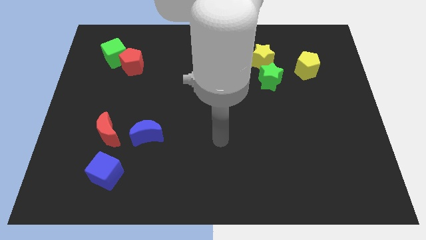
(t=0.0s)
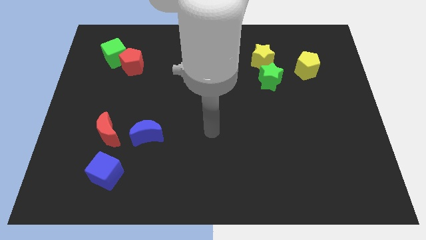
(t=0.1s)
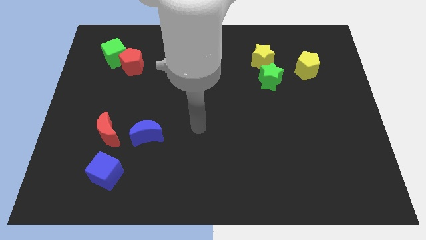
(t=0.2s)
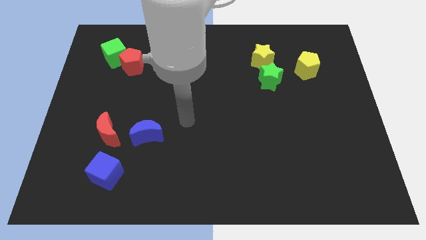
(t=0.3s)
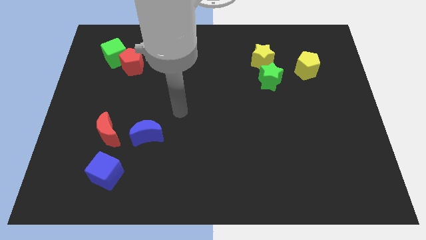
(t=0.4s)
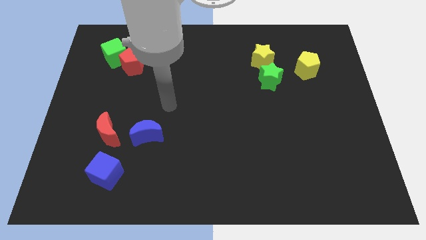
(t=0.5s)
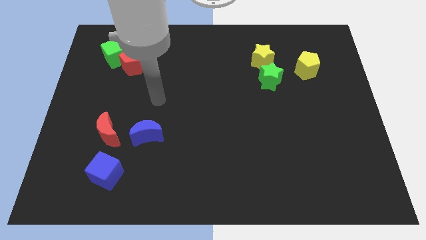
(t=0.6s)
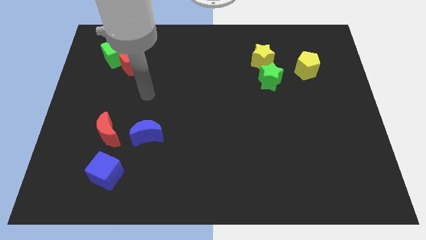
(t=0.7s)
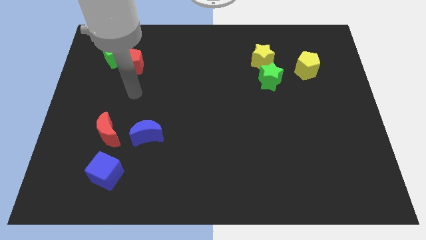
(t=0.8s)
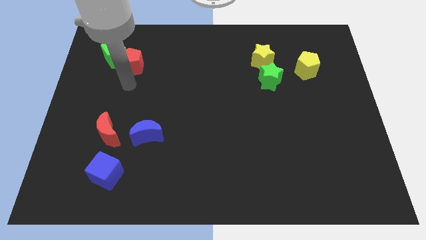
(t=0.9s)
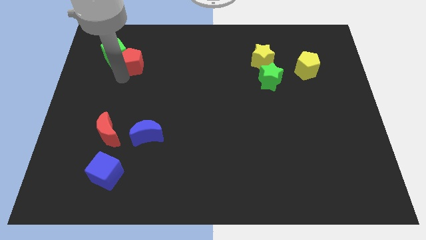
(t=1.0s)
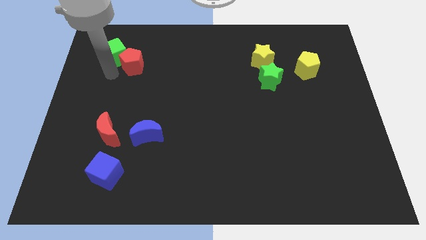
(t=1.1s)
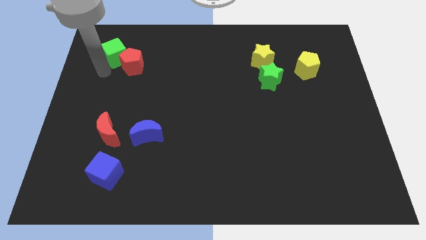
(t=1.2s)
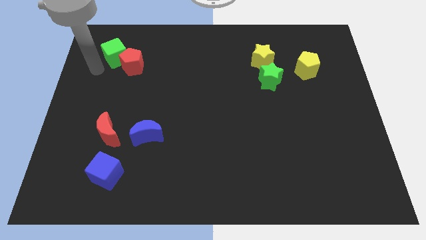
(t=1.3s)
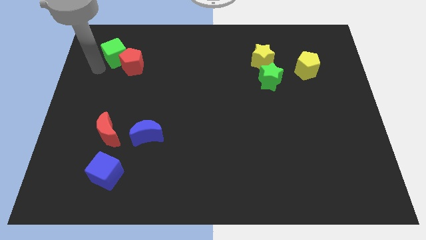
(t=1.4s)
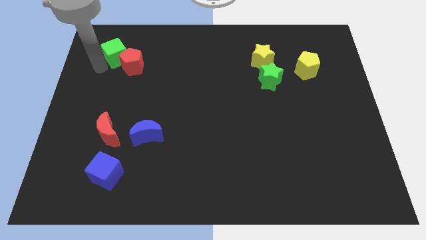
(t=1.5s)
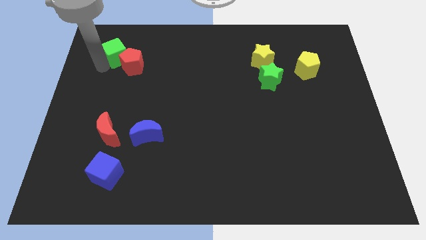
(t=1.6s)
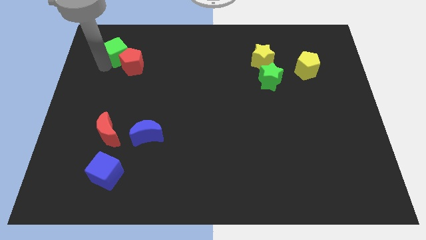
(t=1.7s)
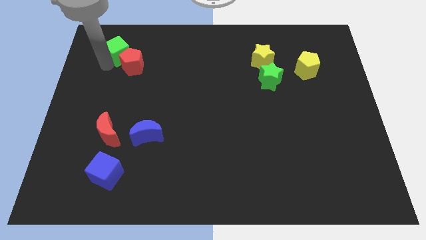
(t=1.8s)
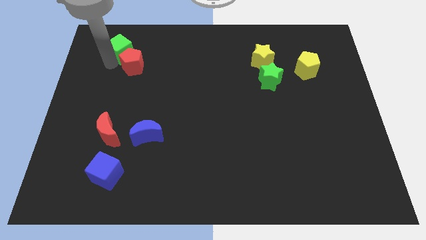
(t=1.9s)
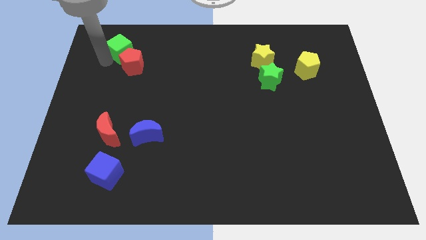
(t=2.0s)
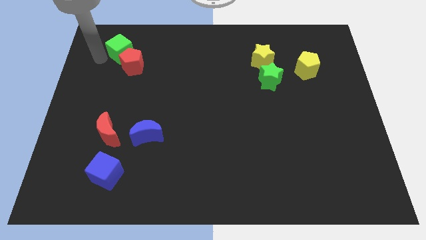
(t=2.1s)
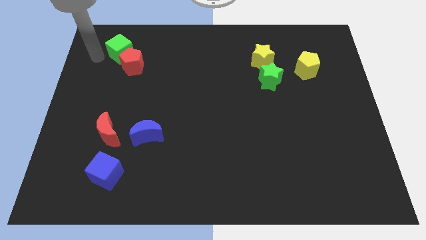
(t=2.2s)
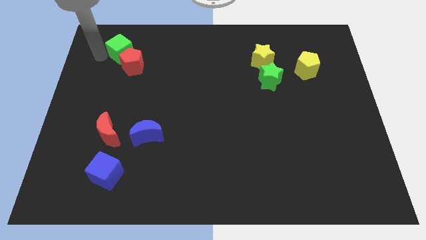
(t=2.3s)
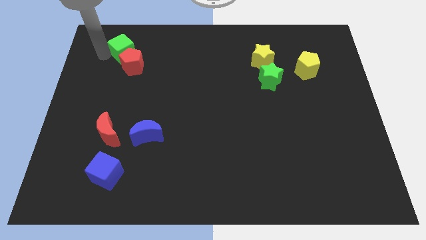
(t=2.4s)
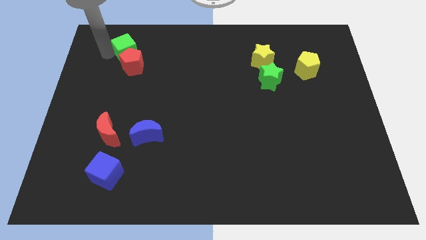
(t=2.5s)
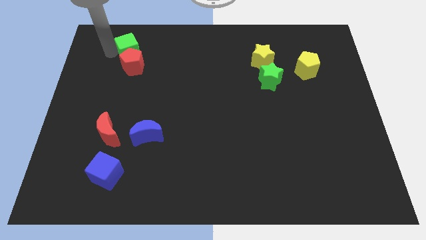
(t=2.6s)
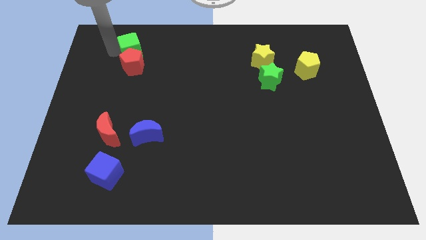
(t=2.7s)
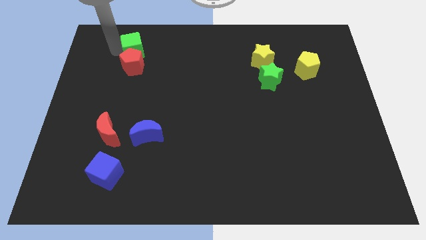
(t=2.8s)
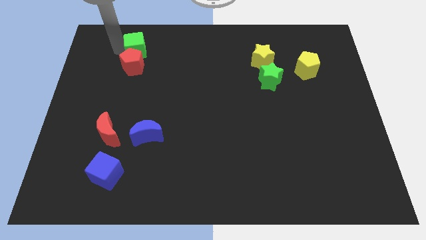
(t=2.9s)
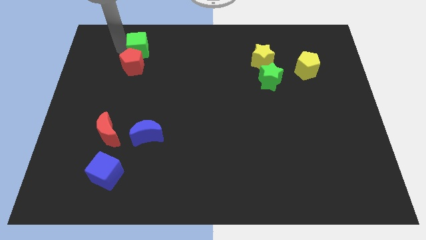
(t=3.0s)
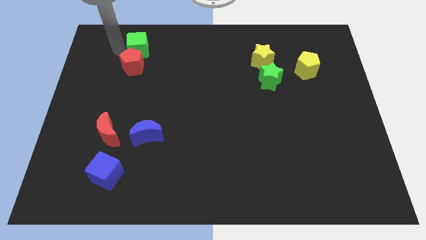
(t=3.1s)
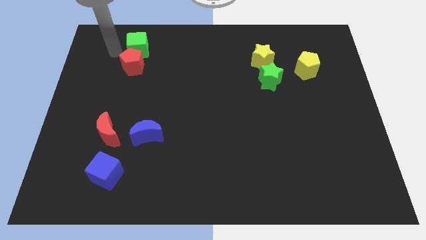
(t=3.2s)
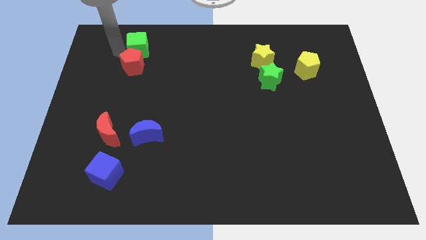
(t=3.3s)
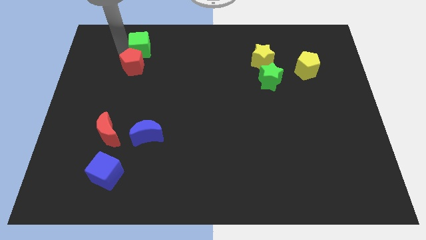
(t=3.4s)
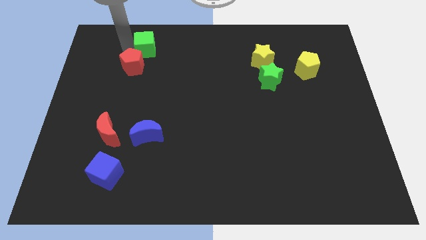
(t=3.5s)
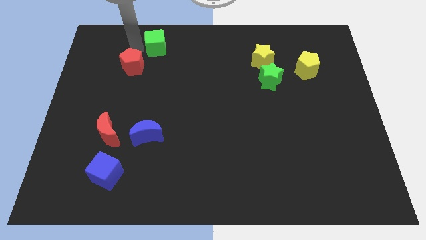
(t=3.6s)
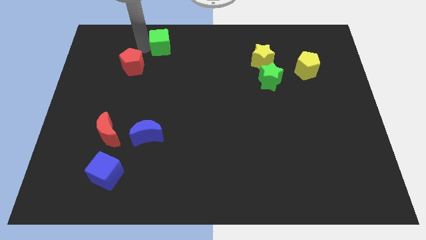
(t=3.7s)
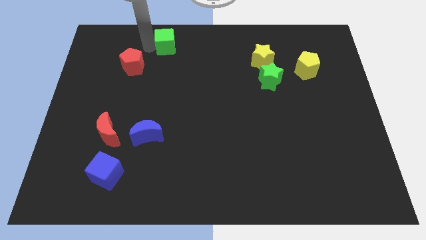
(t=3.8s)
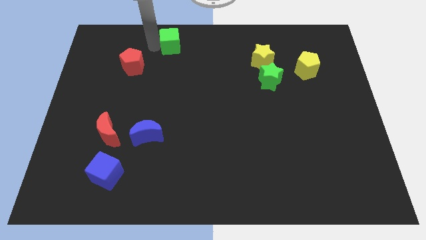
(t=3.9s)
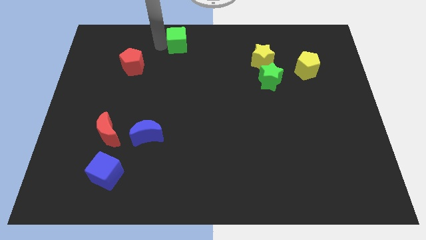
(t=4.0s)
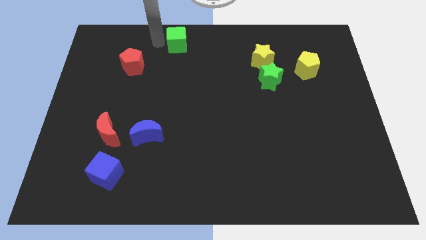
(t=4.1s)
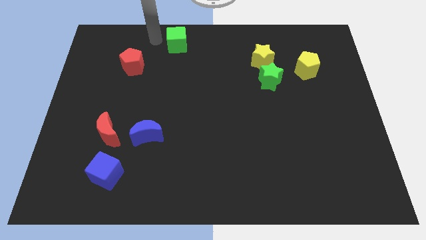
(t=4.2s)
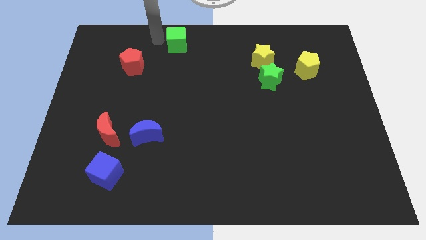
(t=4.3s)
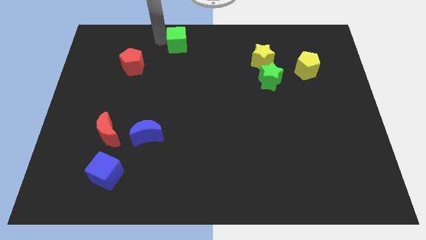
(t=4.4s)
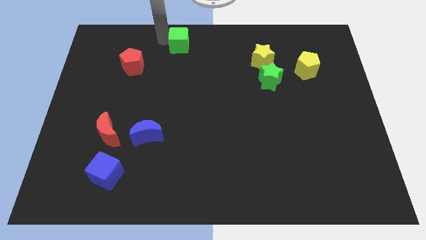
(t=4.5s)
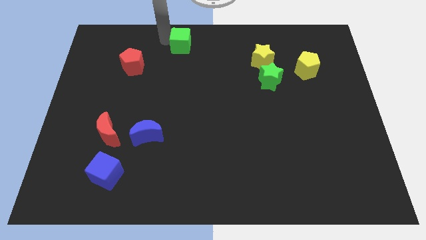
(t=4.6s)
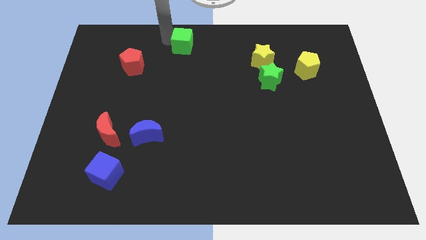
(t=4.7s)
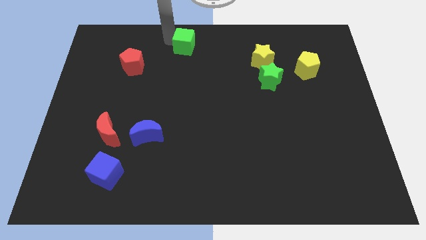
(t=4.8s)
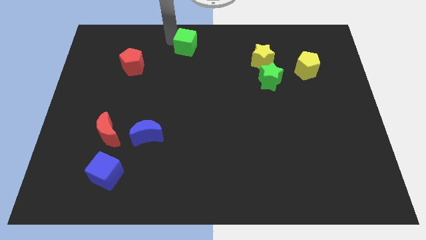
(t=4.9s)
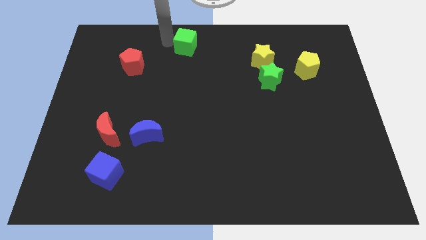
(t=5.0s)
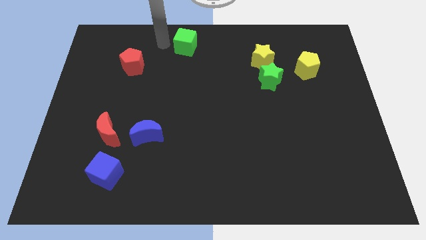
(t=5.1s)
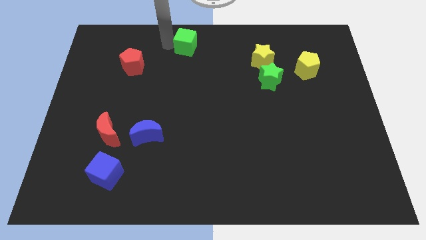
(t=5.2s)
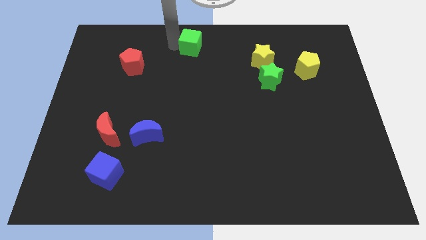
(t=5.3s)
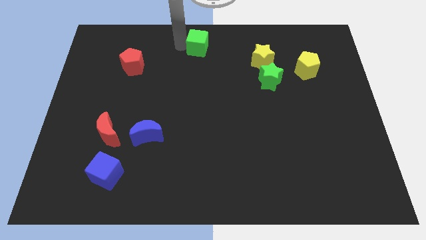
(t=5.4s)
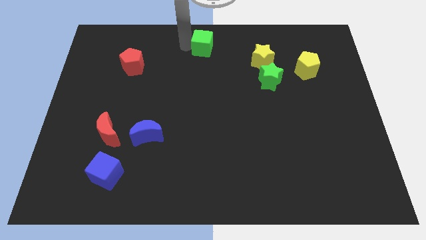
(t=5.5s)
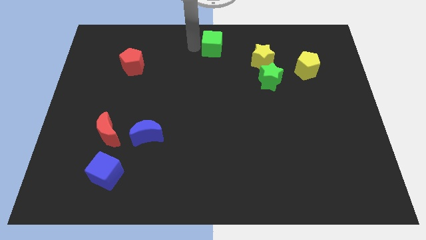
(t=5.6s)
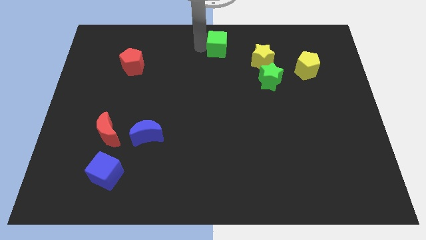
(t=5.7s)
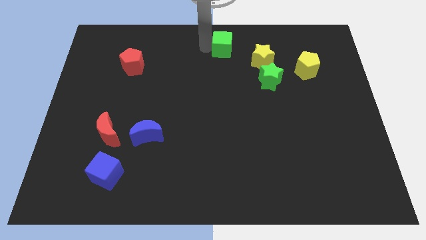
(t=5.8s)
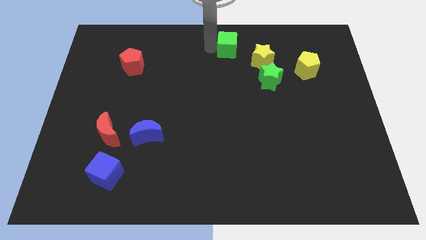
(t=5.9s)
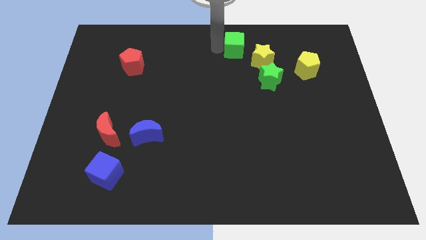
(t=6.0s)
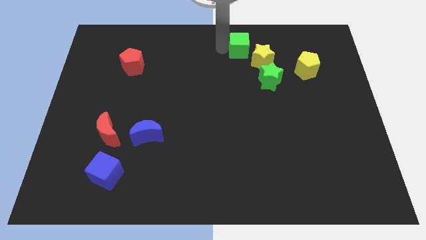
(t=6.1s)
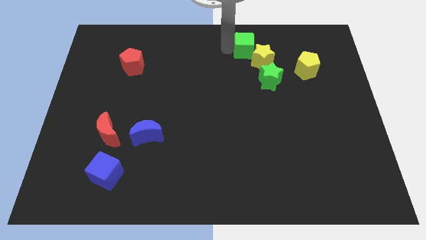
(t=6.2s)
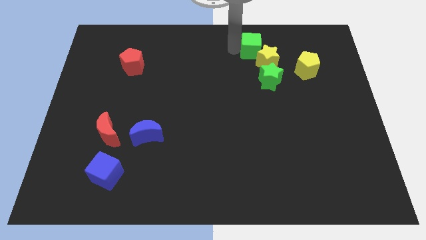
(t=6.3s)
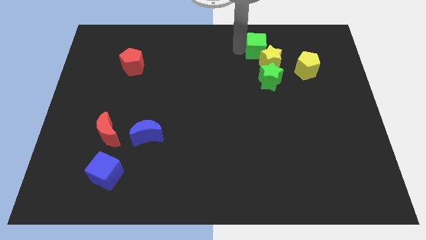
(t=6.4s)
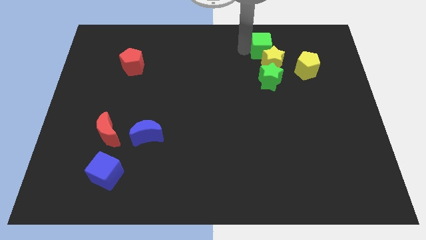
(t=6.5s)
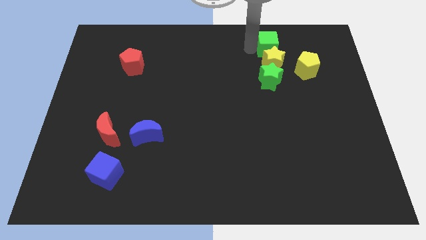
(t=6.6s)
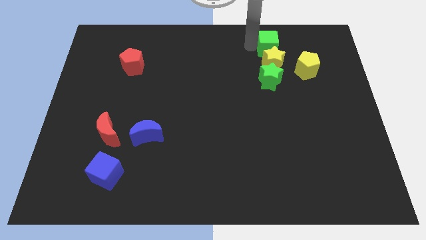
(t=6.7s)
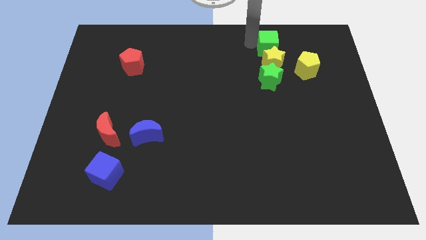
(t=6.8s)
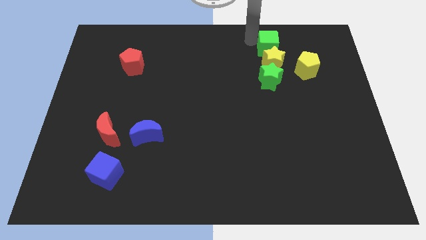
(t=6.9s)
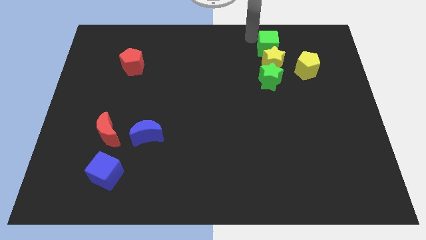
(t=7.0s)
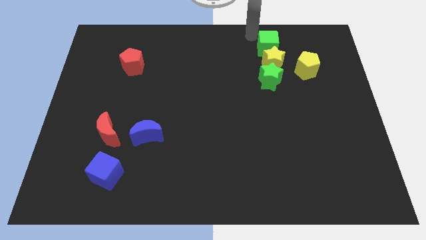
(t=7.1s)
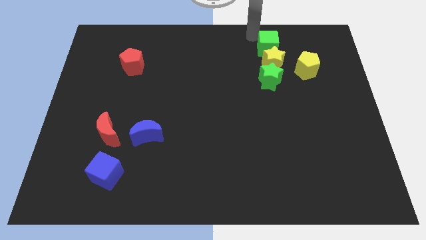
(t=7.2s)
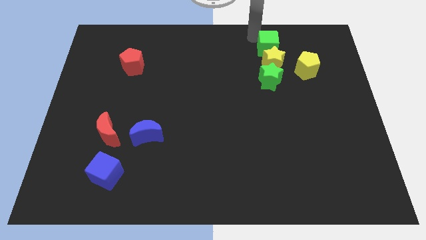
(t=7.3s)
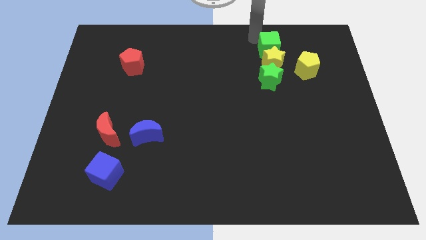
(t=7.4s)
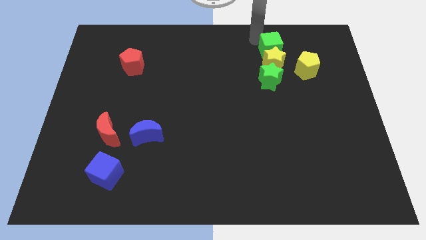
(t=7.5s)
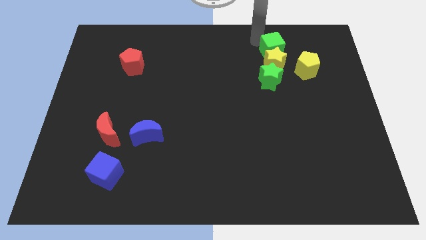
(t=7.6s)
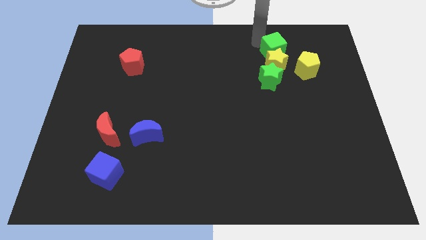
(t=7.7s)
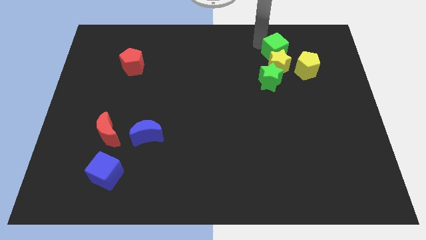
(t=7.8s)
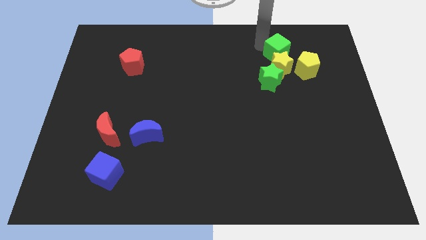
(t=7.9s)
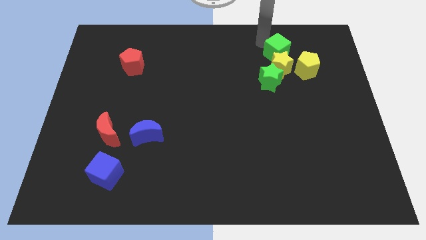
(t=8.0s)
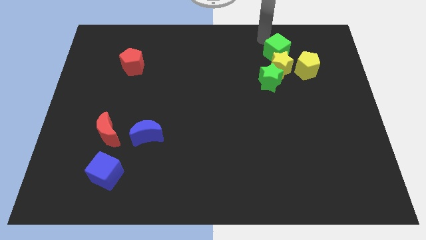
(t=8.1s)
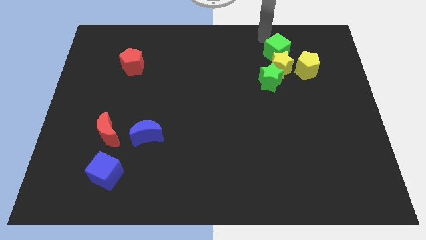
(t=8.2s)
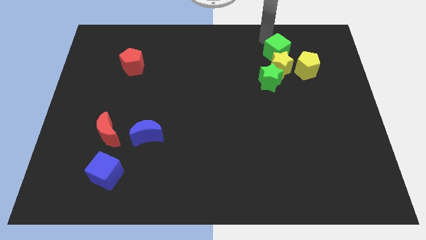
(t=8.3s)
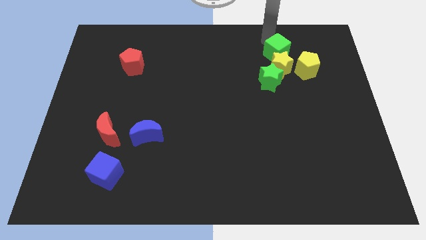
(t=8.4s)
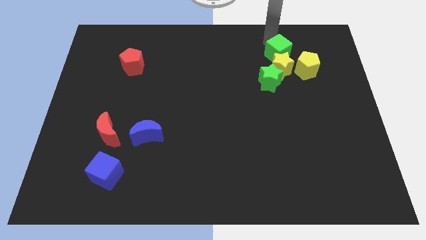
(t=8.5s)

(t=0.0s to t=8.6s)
put the green cube diagonally up and to the right of the green star
